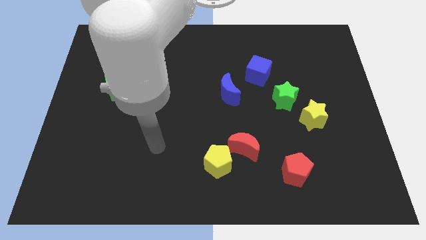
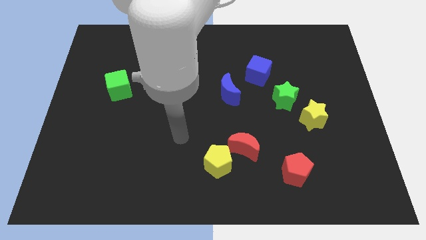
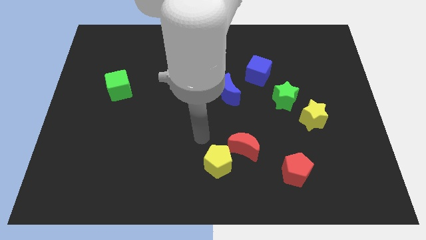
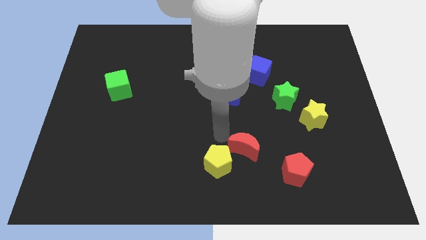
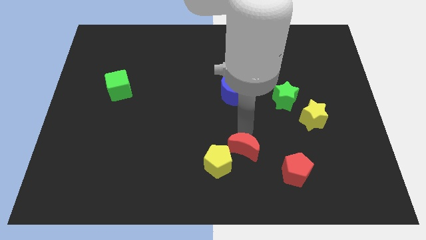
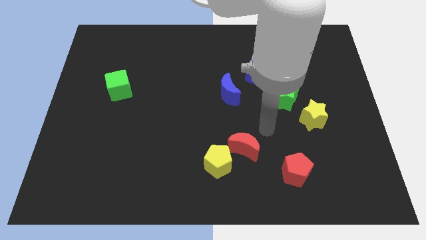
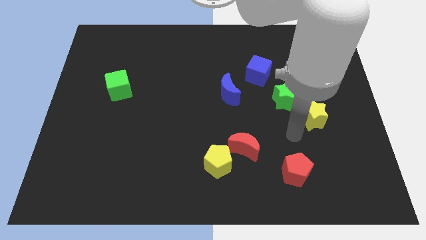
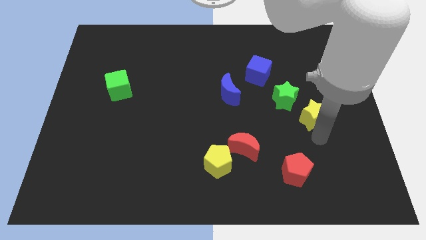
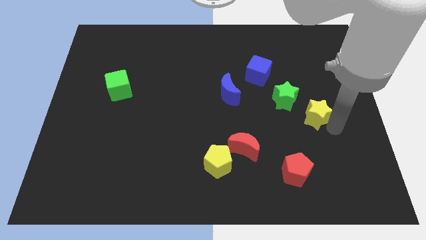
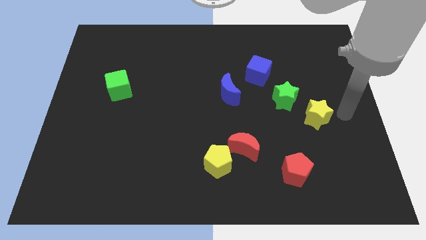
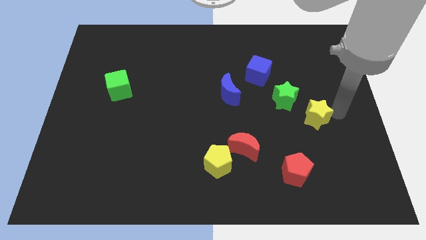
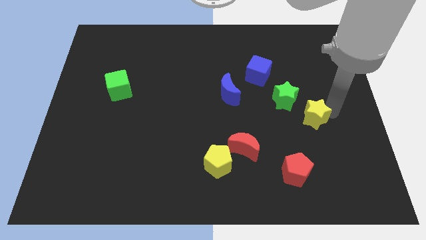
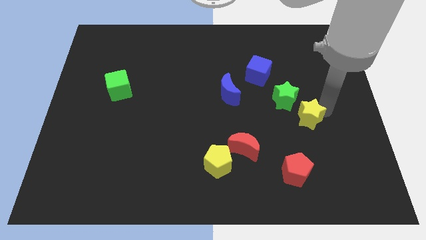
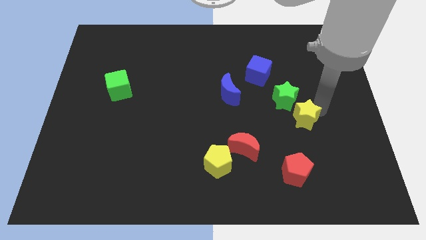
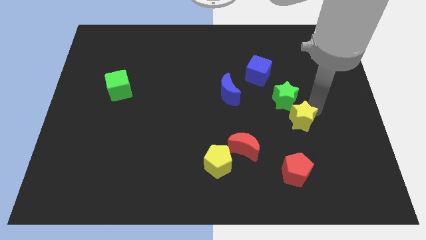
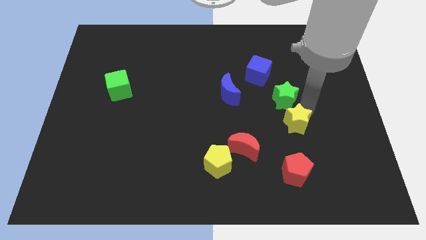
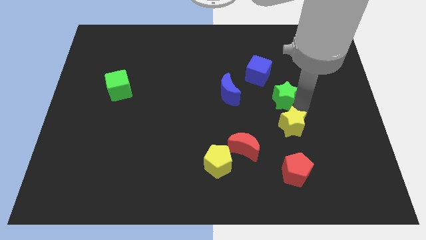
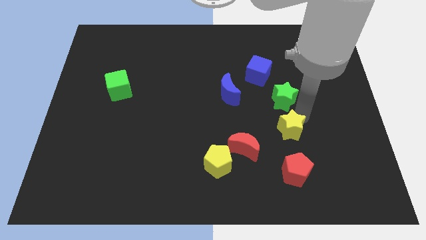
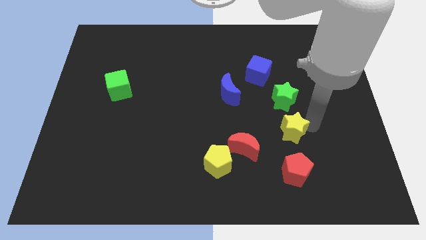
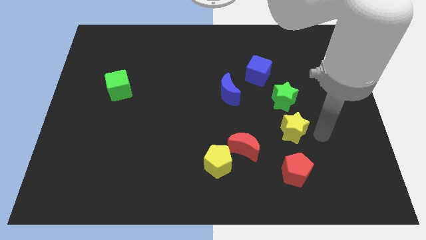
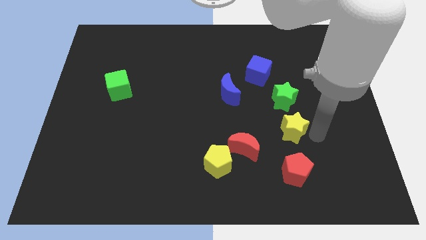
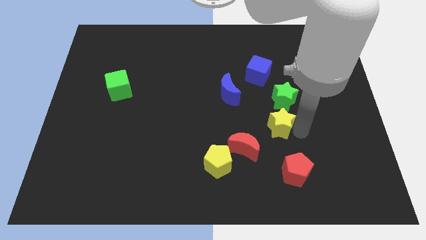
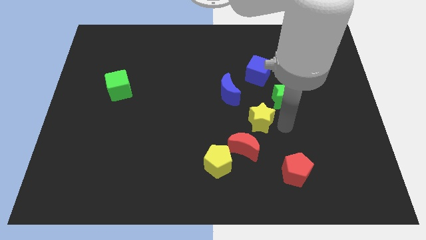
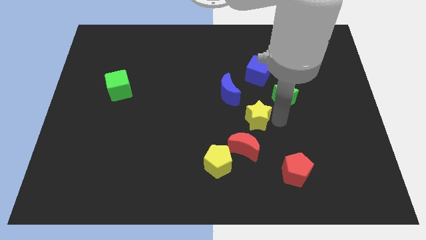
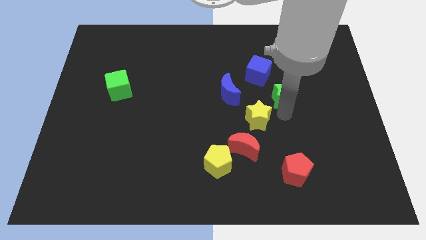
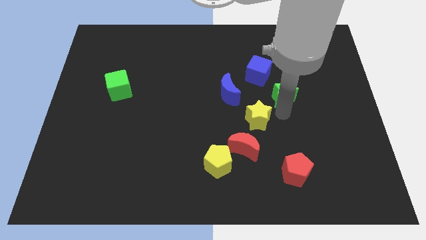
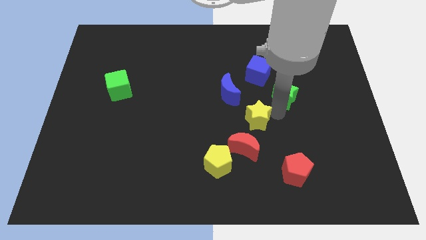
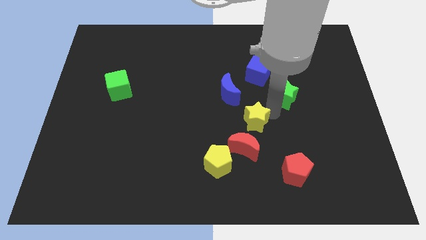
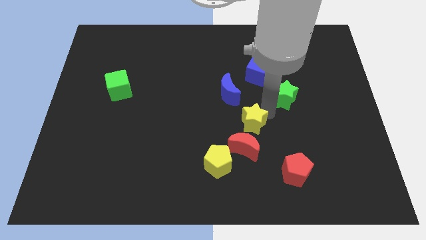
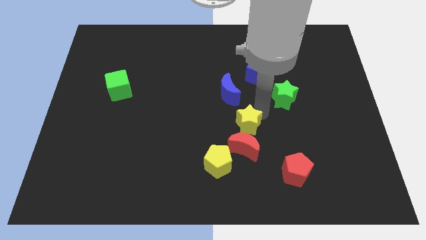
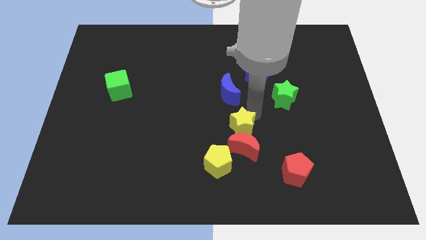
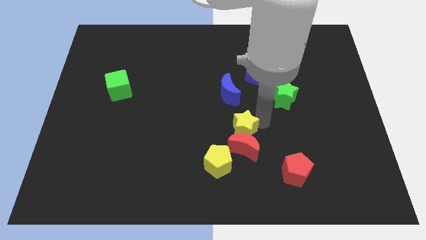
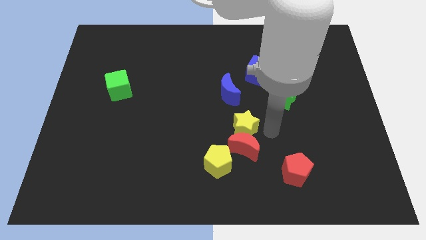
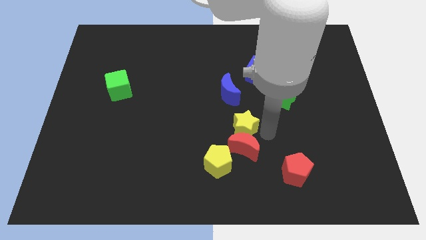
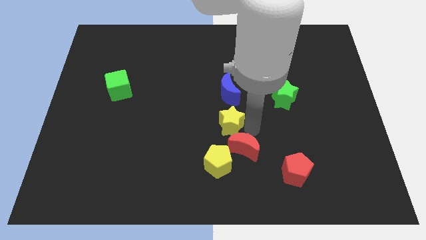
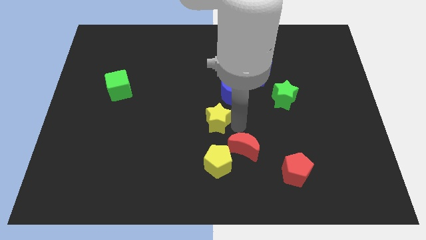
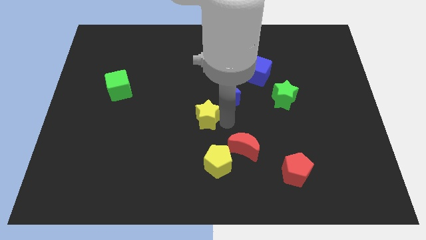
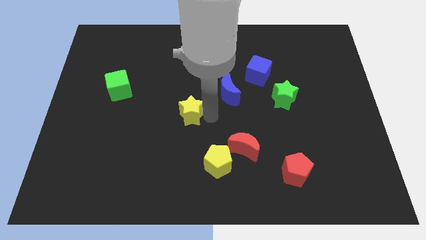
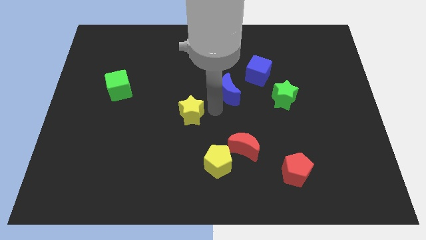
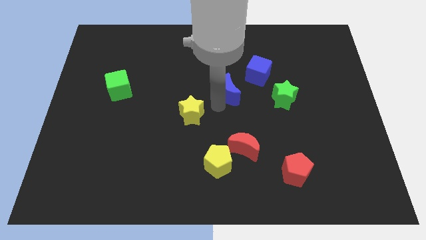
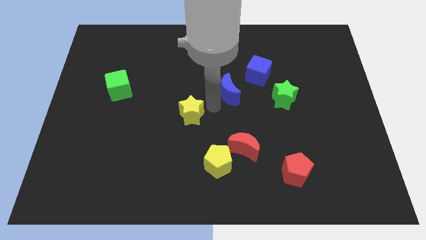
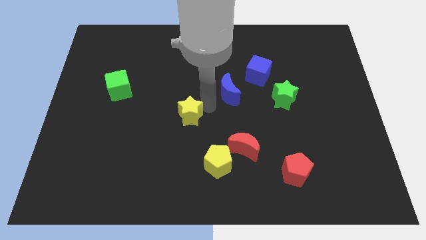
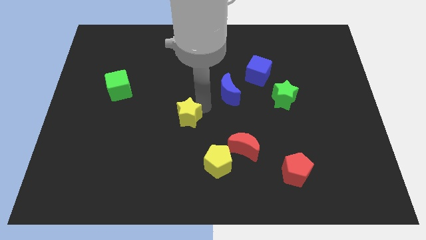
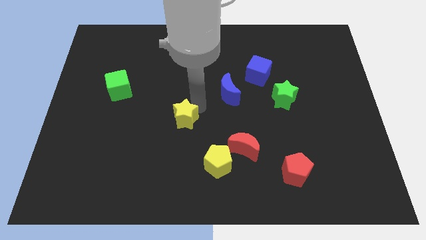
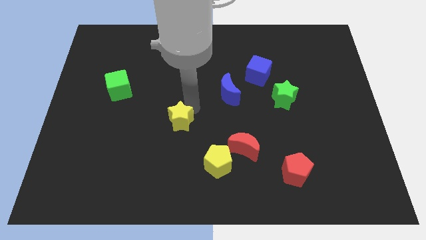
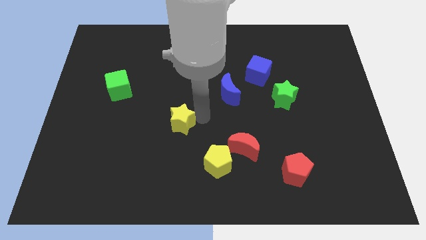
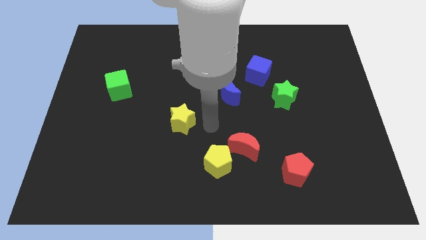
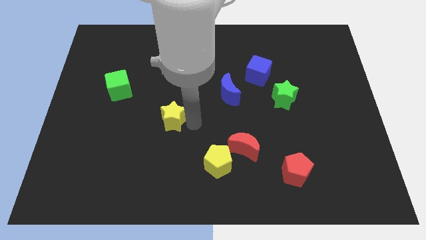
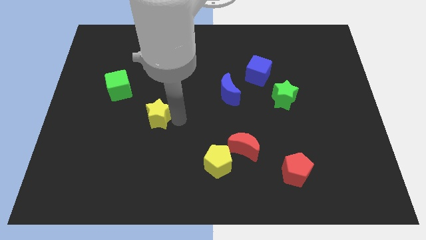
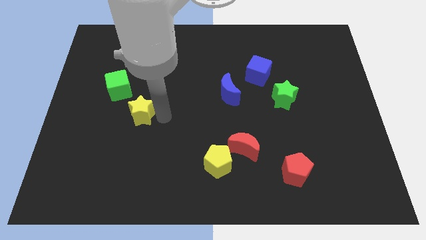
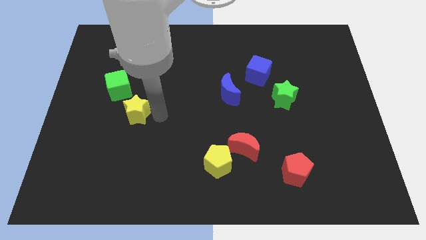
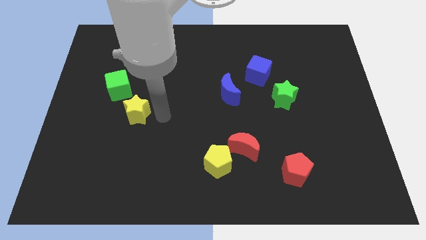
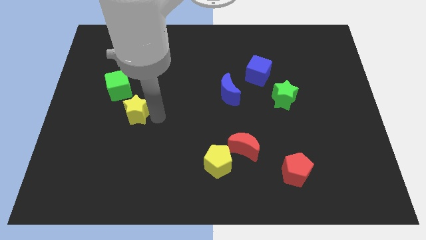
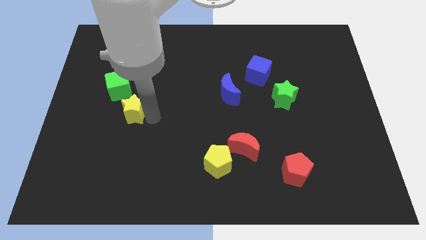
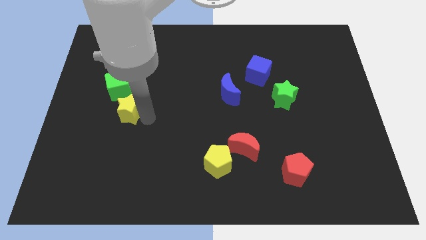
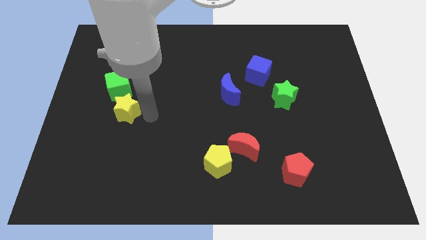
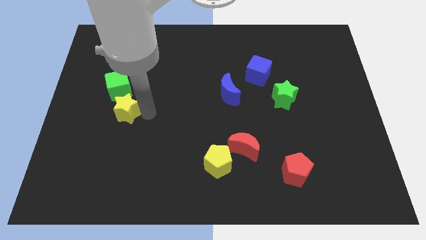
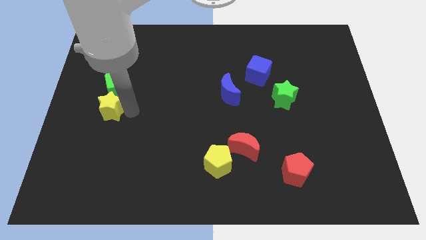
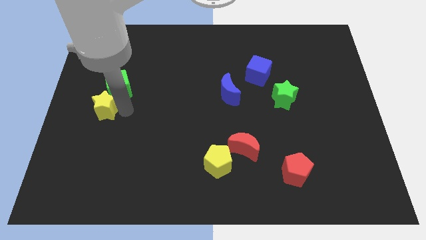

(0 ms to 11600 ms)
put the yellow star to the left side
